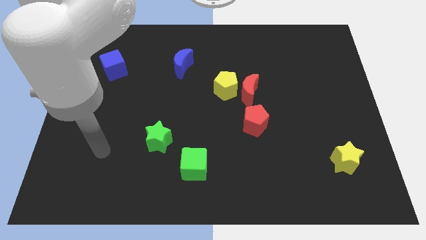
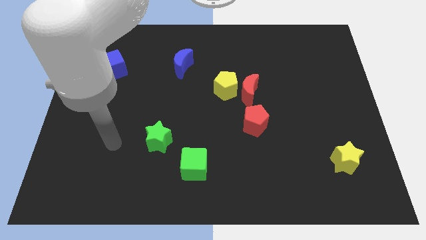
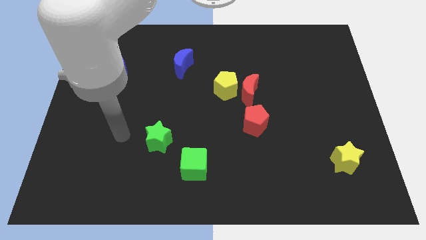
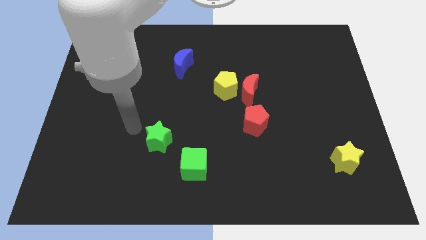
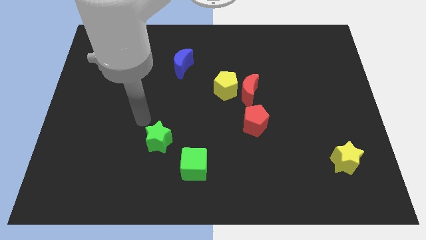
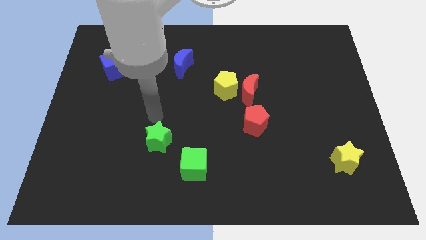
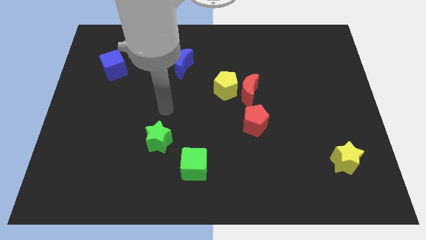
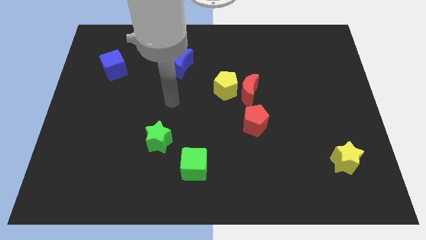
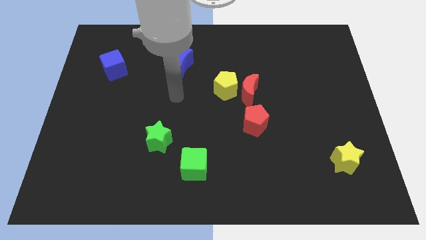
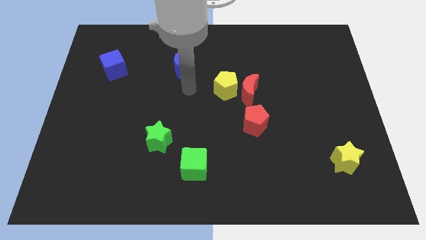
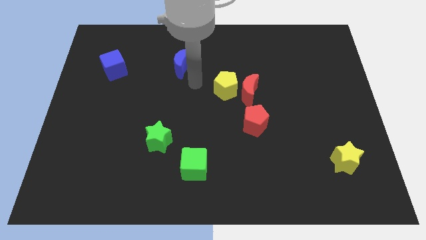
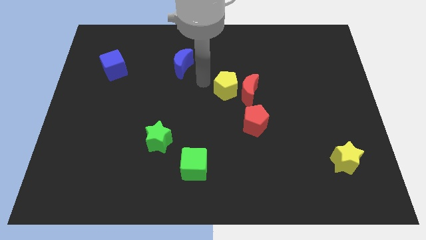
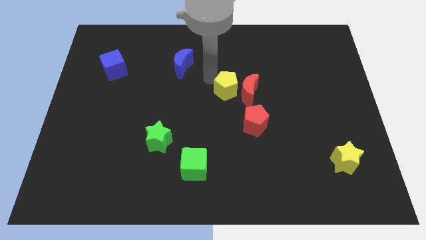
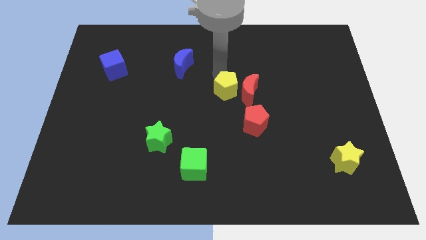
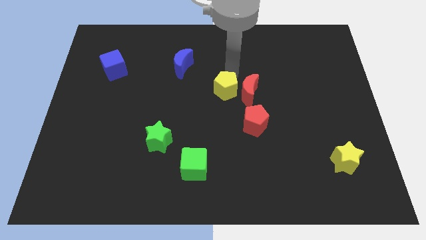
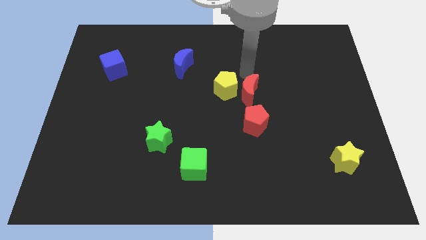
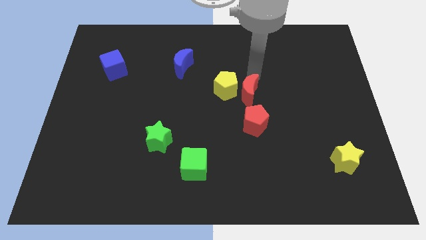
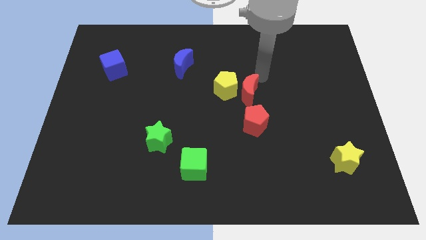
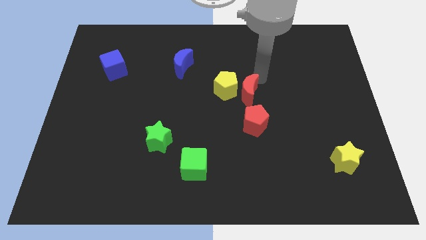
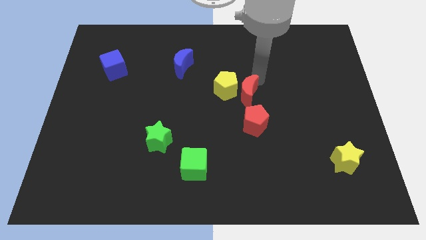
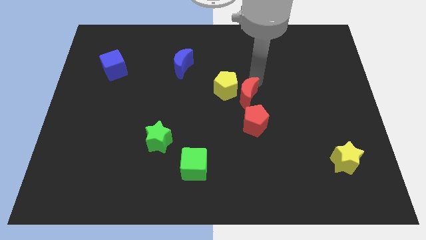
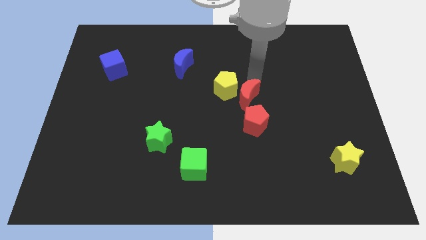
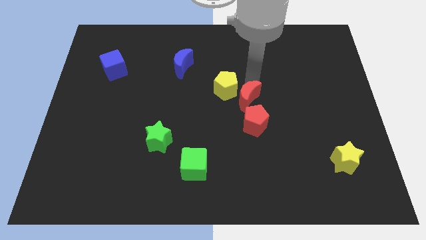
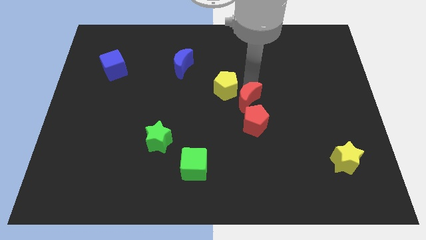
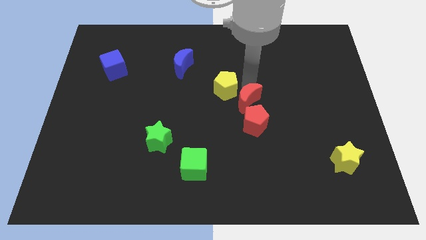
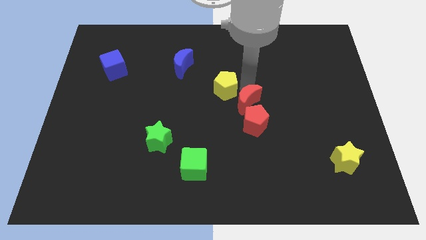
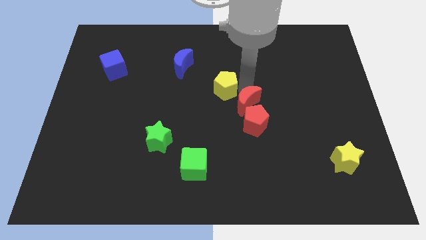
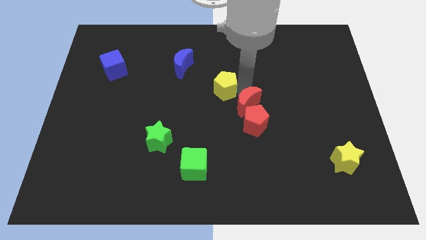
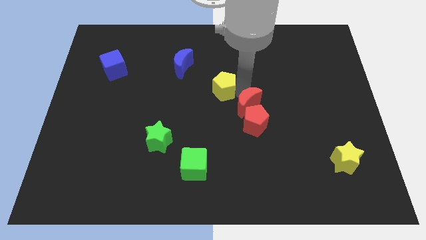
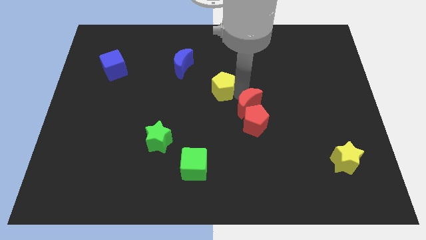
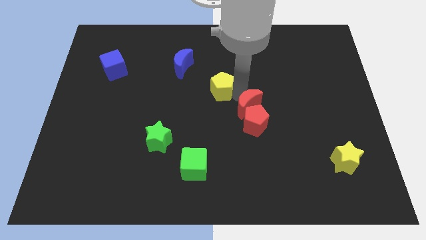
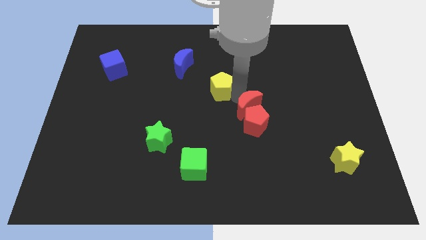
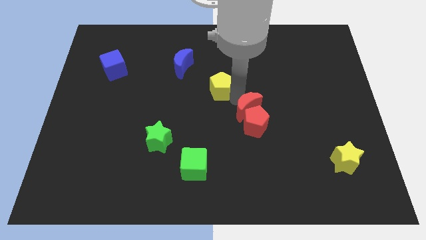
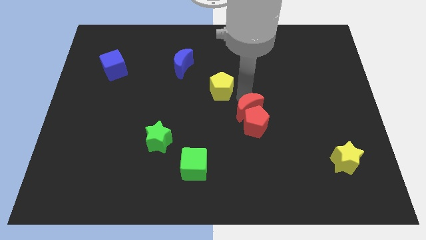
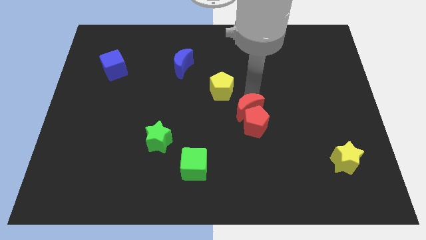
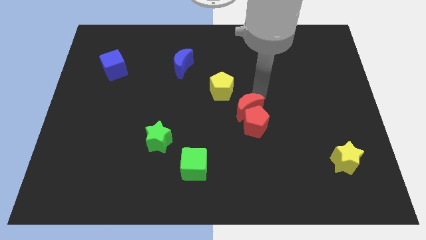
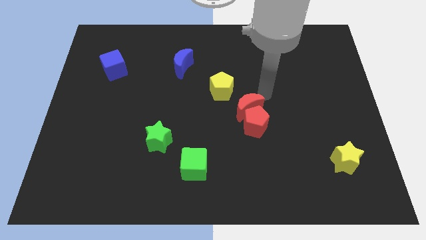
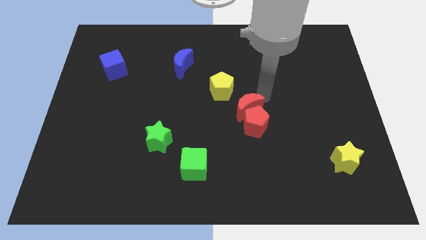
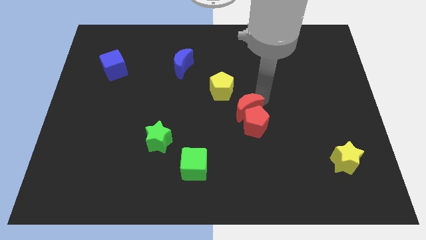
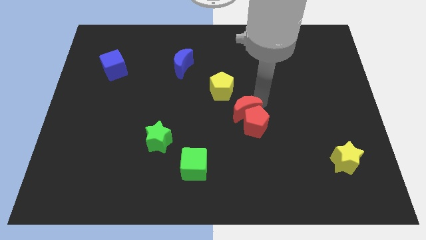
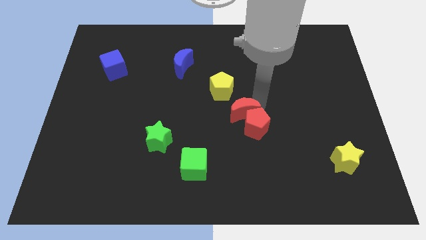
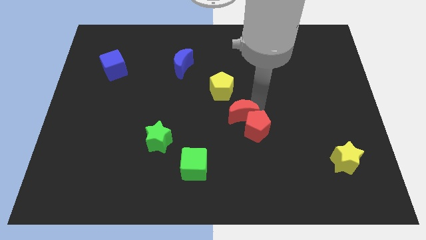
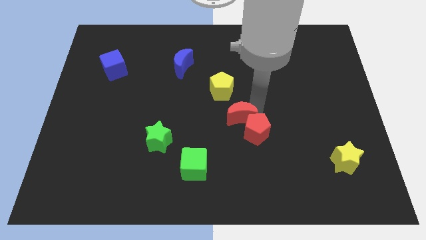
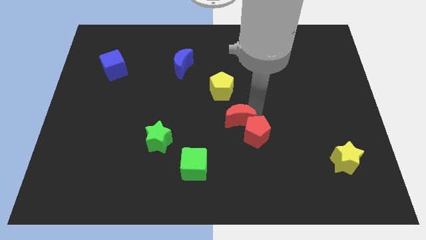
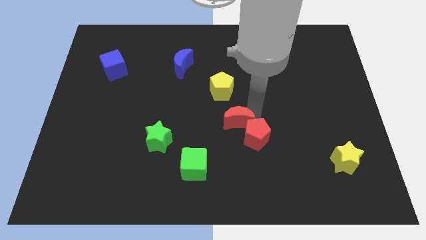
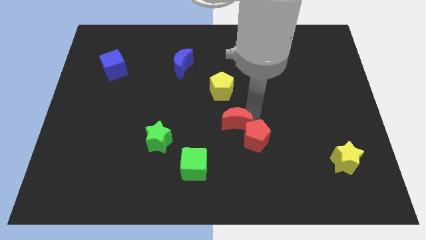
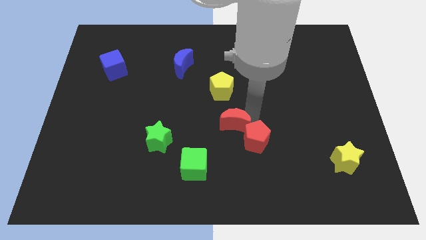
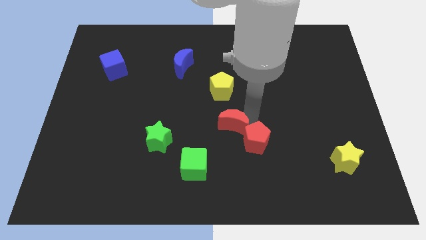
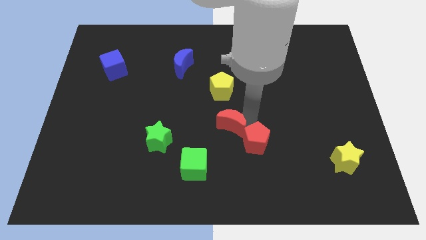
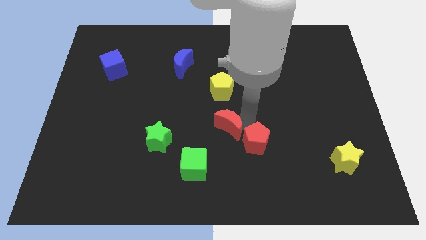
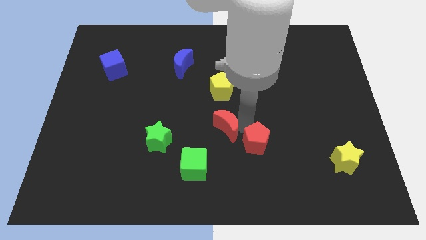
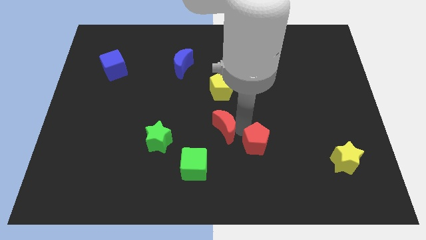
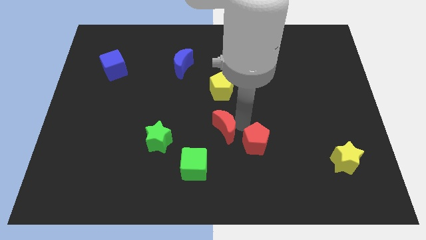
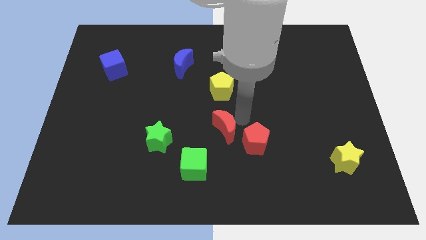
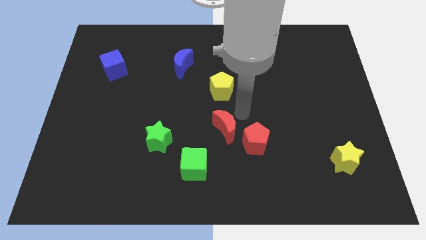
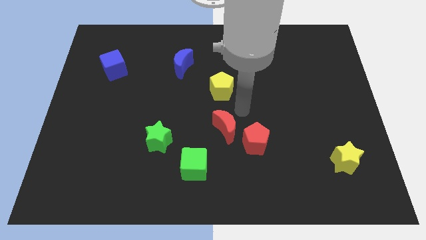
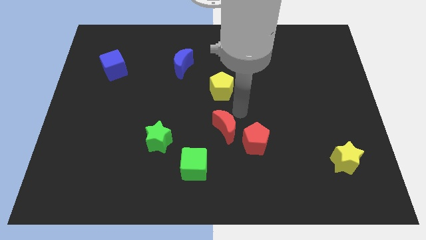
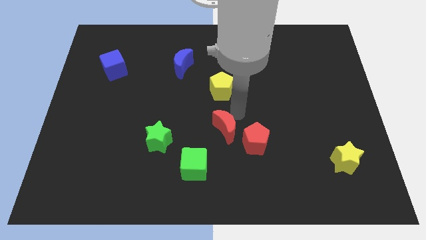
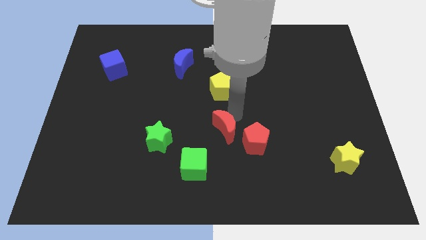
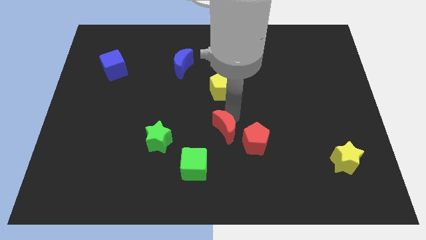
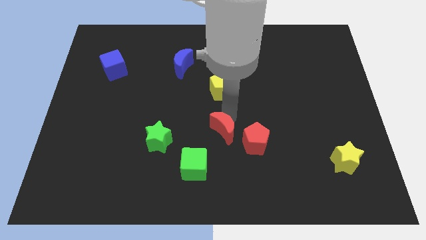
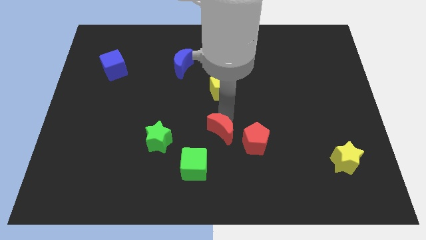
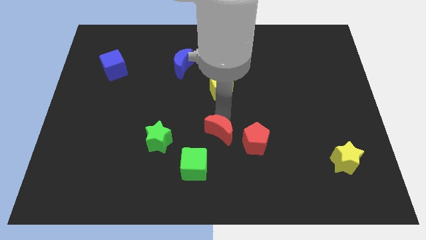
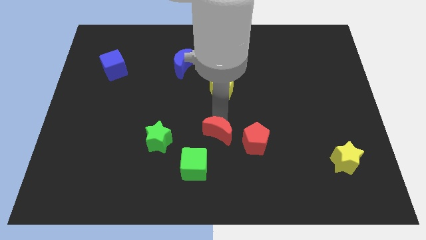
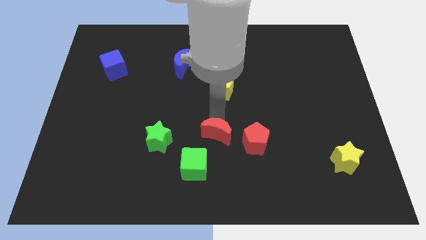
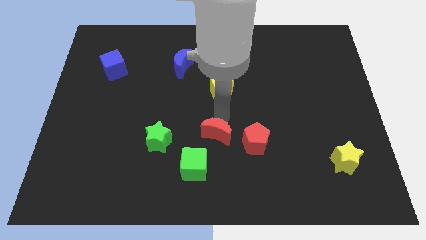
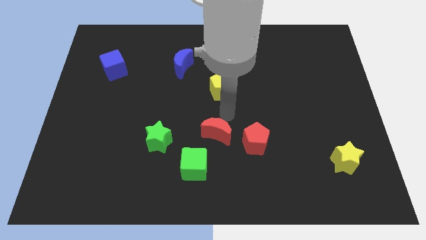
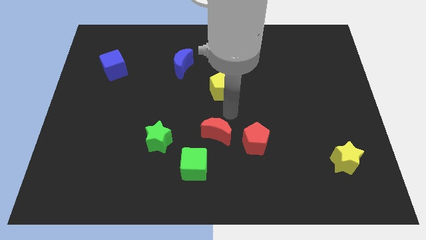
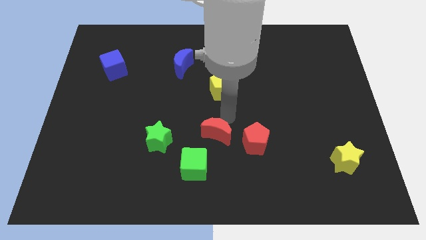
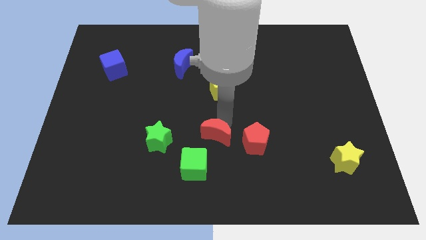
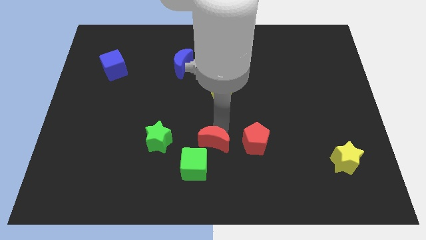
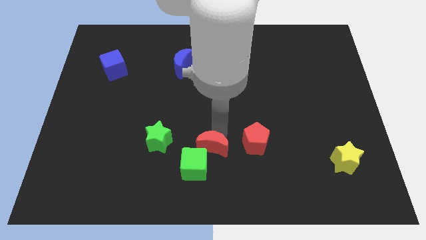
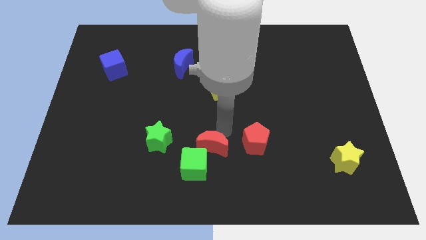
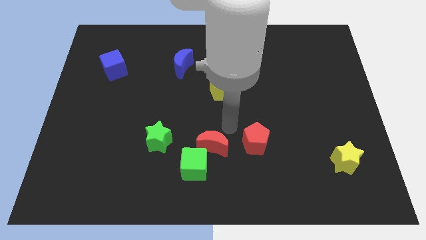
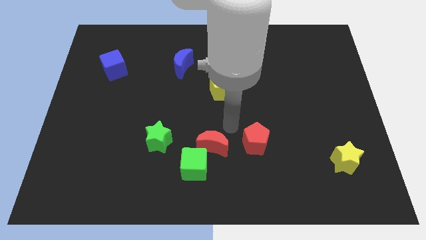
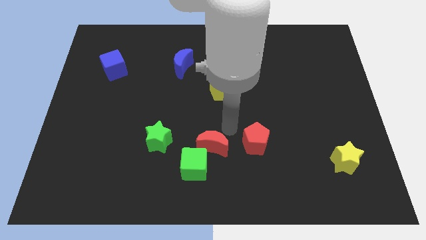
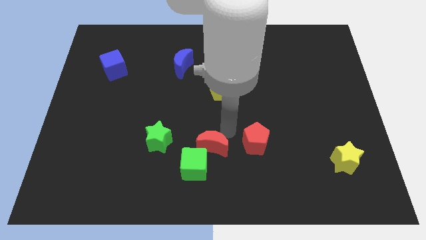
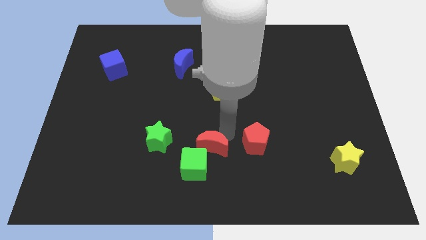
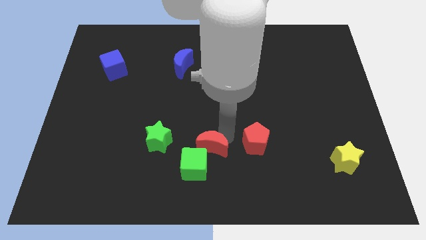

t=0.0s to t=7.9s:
push the red moon towards the green cube
